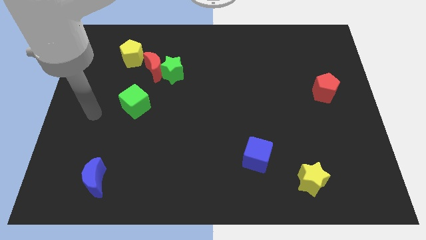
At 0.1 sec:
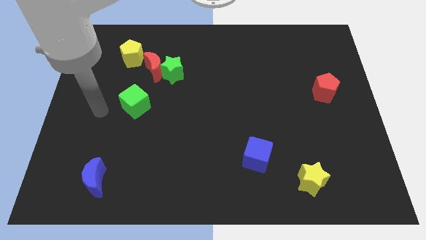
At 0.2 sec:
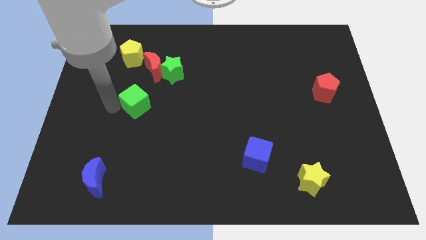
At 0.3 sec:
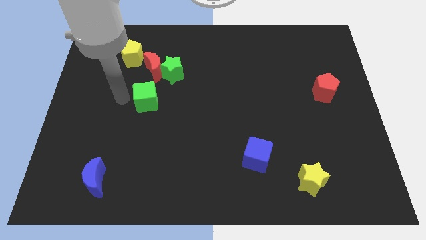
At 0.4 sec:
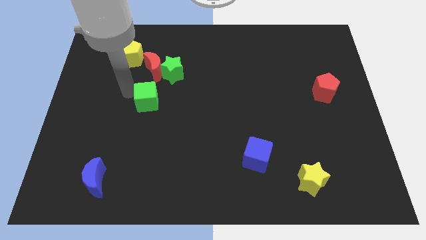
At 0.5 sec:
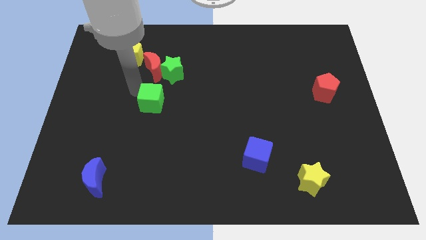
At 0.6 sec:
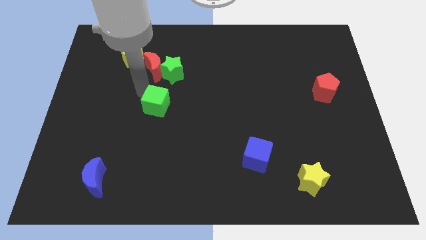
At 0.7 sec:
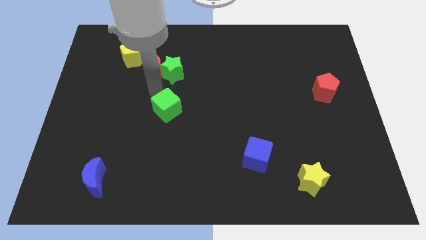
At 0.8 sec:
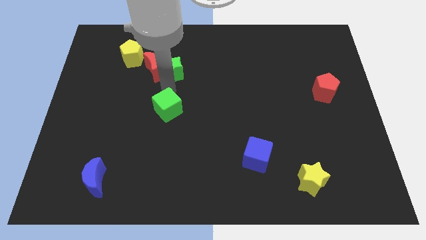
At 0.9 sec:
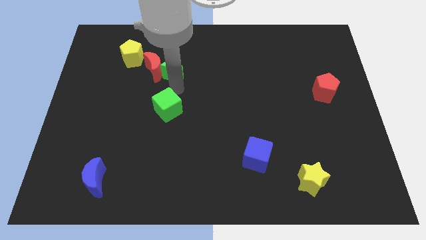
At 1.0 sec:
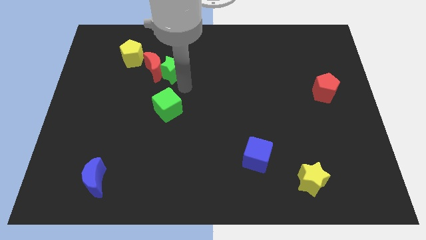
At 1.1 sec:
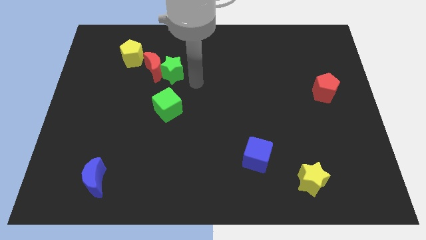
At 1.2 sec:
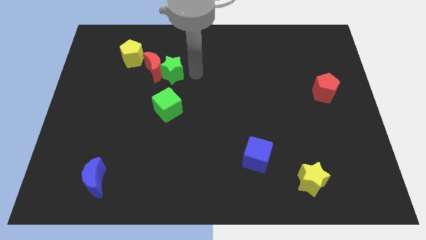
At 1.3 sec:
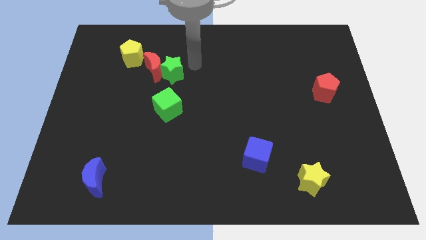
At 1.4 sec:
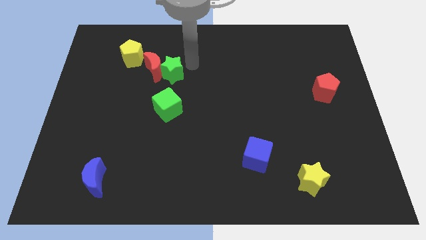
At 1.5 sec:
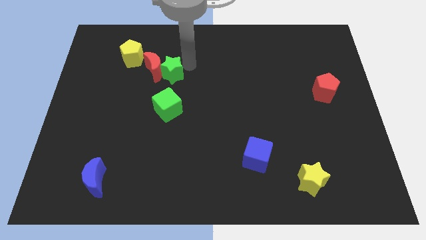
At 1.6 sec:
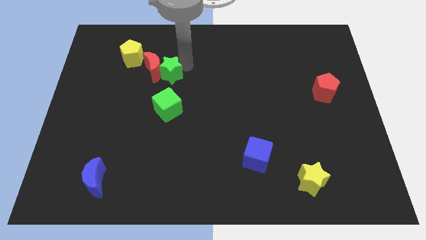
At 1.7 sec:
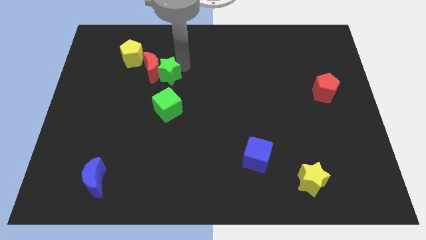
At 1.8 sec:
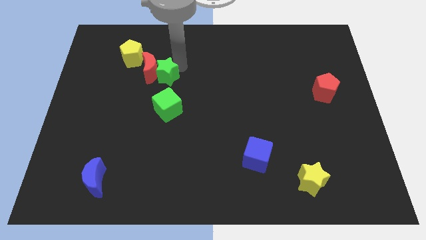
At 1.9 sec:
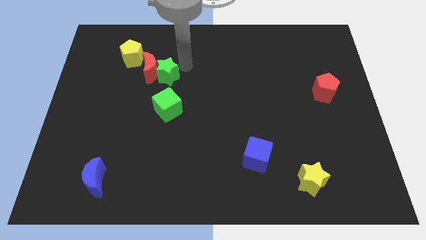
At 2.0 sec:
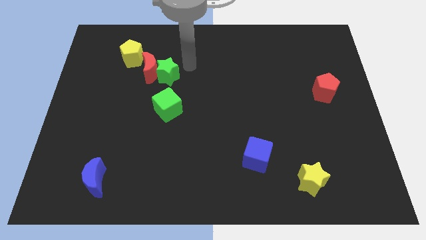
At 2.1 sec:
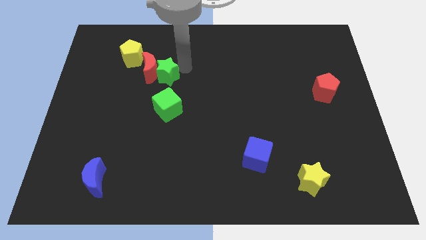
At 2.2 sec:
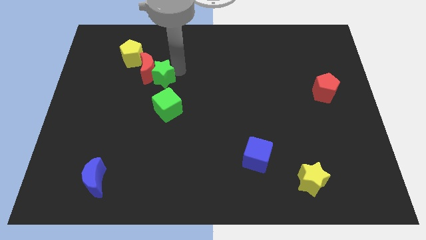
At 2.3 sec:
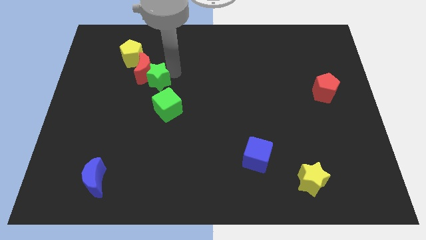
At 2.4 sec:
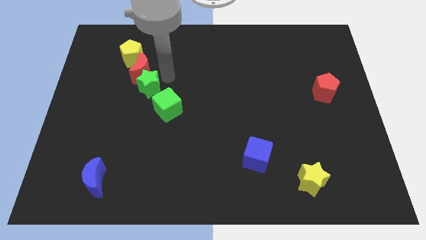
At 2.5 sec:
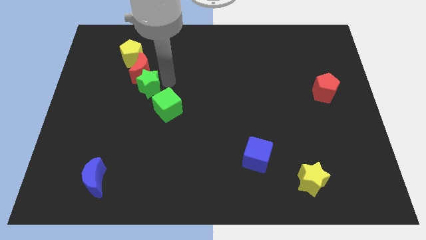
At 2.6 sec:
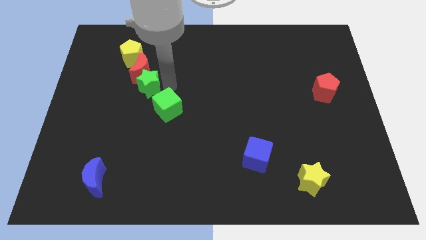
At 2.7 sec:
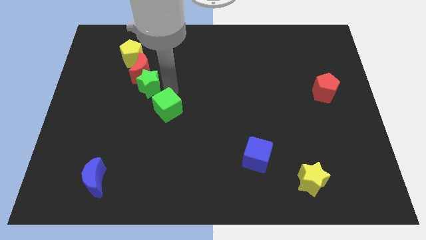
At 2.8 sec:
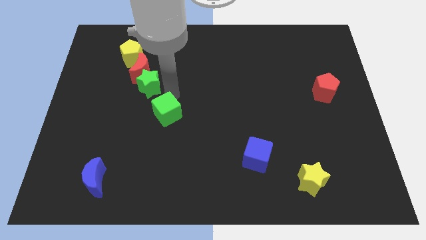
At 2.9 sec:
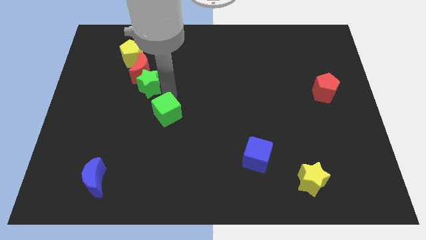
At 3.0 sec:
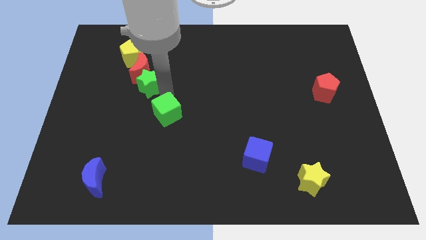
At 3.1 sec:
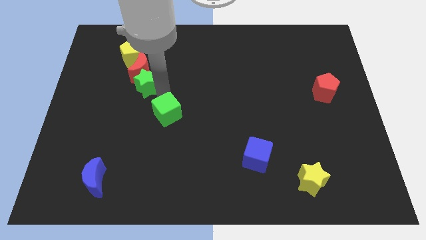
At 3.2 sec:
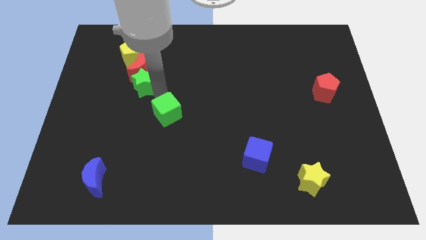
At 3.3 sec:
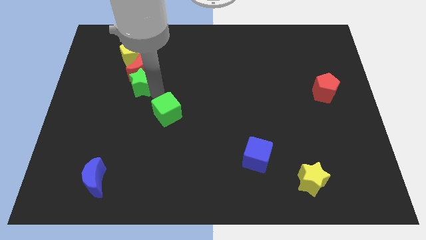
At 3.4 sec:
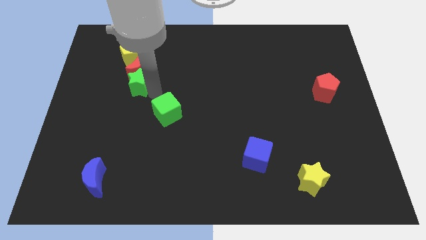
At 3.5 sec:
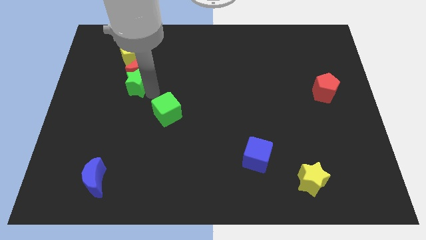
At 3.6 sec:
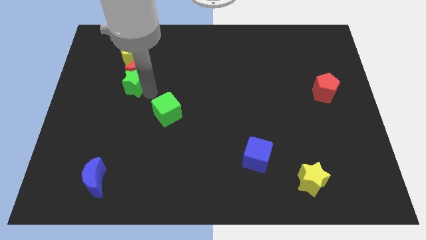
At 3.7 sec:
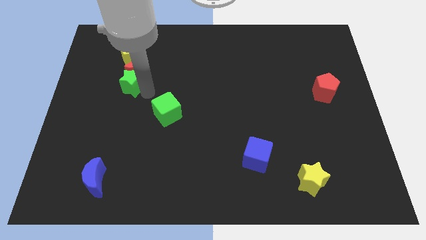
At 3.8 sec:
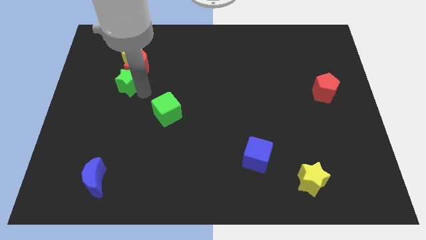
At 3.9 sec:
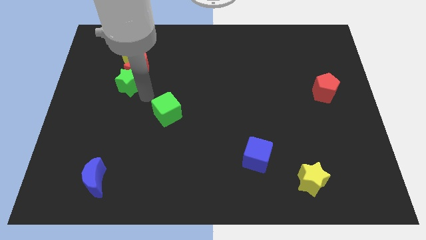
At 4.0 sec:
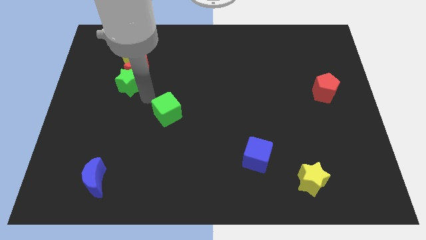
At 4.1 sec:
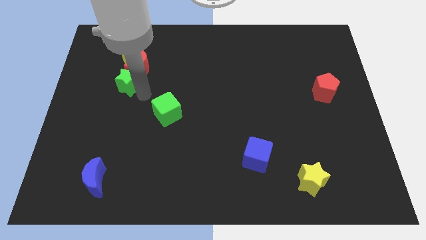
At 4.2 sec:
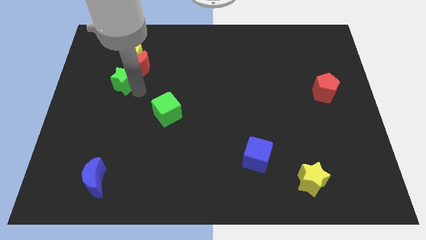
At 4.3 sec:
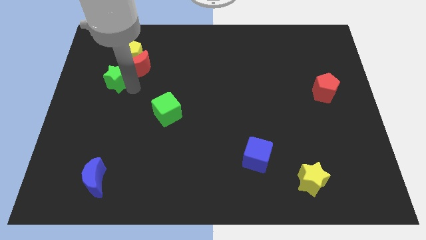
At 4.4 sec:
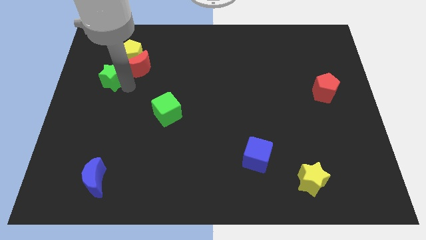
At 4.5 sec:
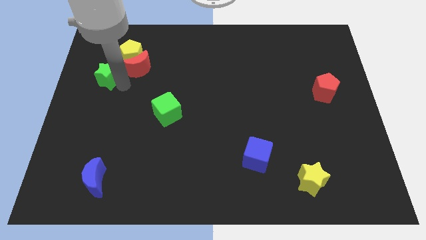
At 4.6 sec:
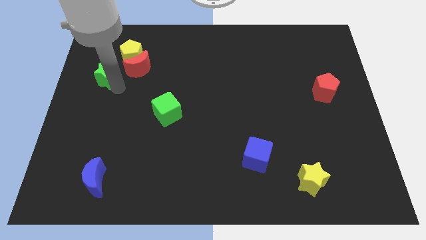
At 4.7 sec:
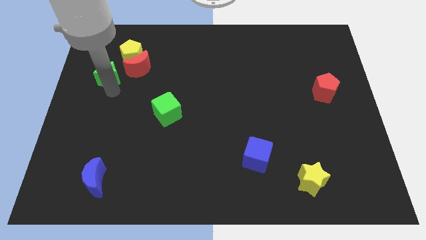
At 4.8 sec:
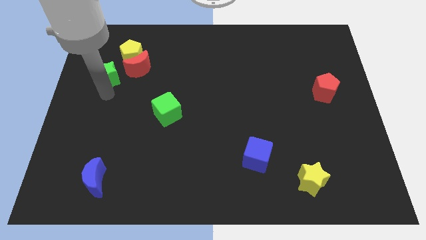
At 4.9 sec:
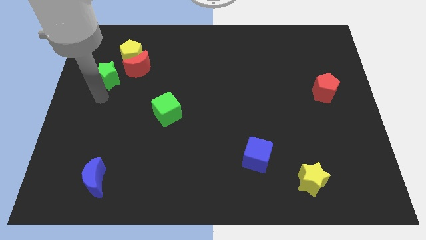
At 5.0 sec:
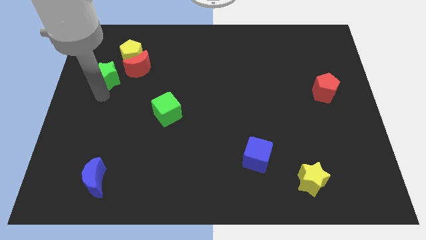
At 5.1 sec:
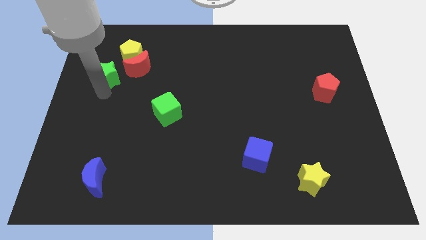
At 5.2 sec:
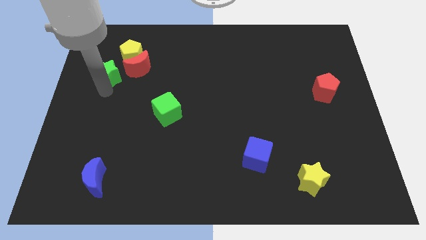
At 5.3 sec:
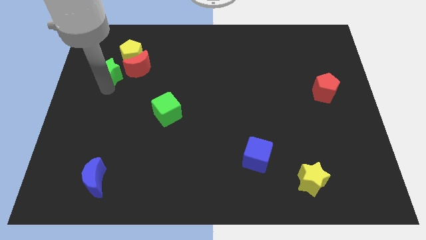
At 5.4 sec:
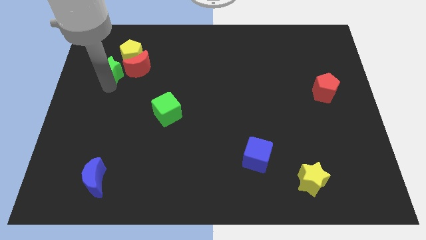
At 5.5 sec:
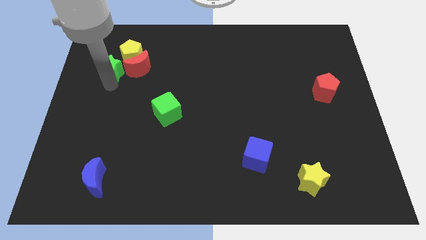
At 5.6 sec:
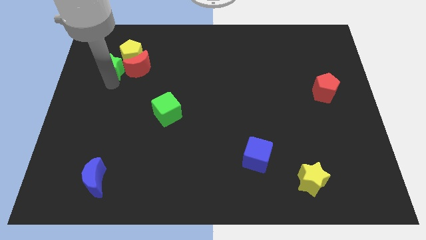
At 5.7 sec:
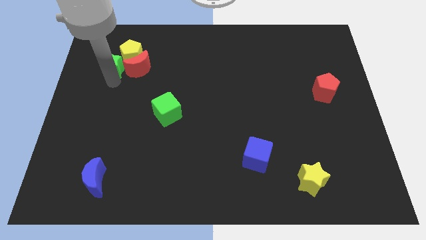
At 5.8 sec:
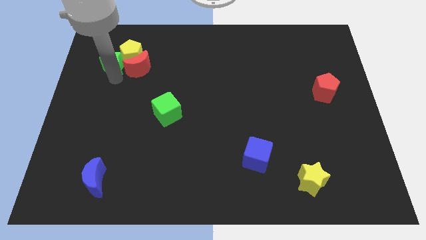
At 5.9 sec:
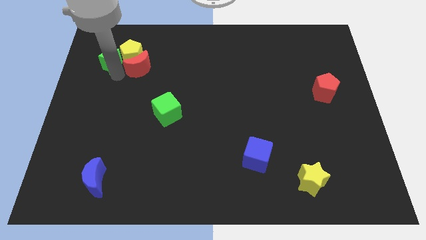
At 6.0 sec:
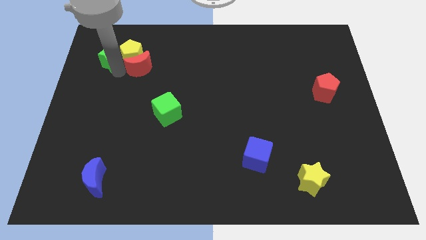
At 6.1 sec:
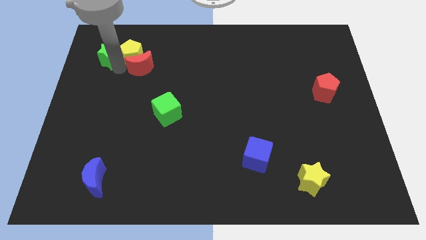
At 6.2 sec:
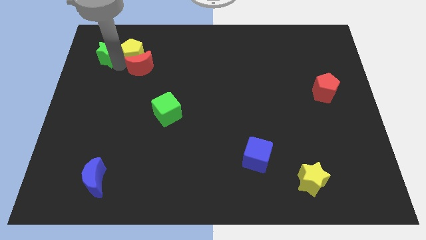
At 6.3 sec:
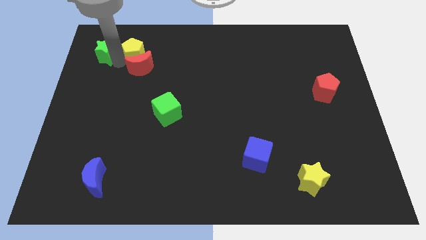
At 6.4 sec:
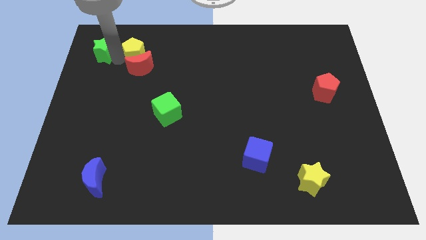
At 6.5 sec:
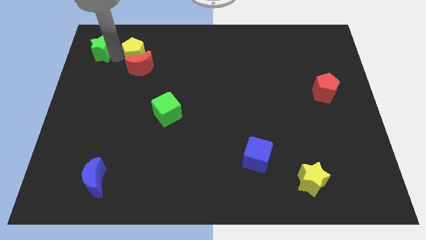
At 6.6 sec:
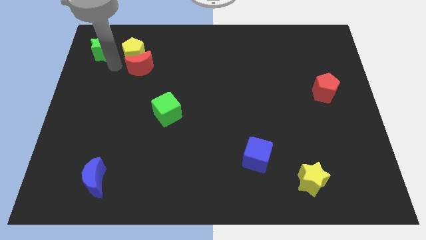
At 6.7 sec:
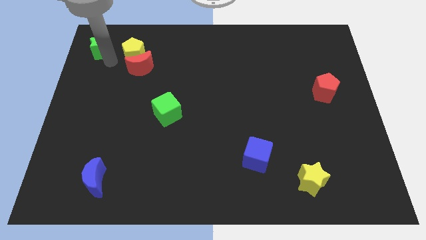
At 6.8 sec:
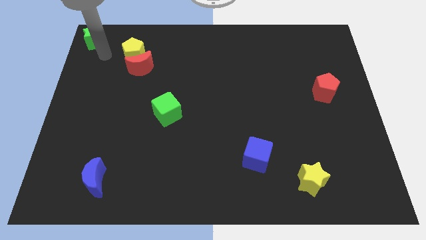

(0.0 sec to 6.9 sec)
slide the green star to the upper left corner
